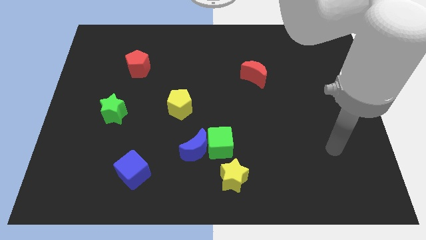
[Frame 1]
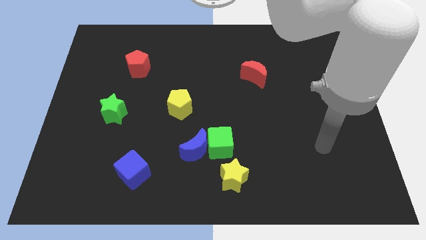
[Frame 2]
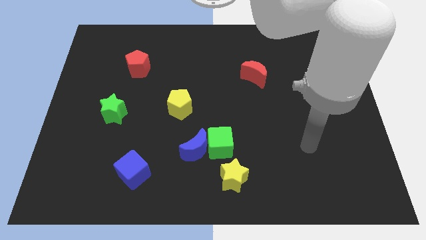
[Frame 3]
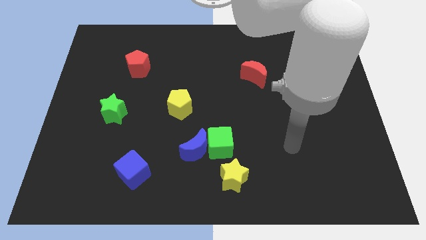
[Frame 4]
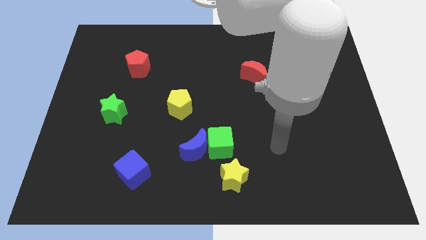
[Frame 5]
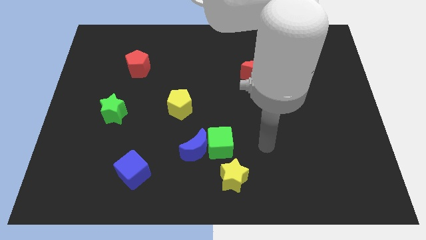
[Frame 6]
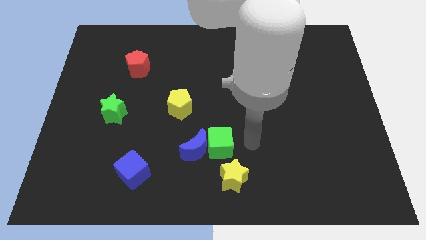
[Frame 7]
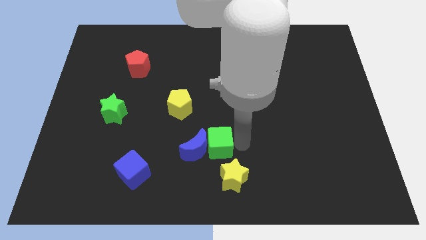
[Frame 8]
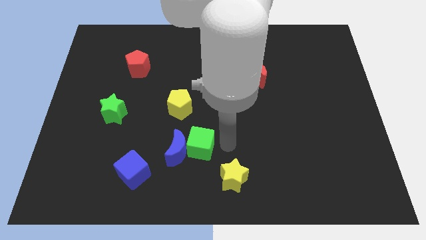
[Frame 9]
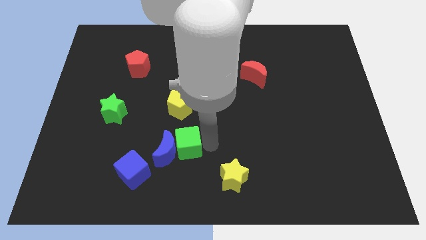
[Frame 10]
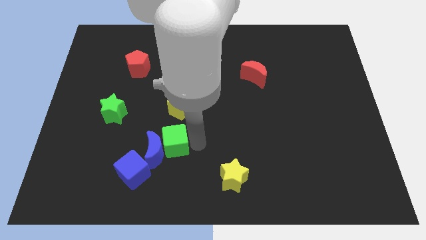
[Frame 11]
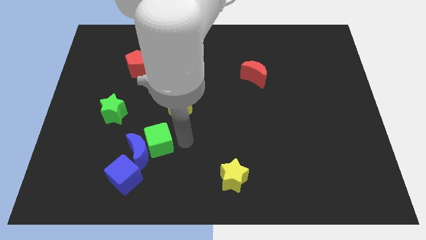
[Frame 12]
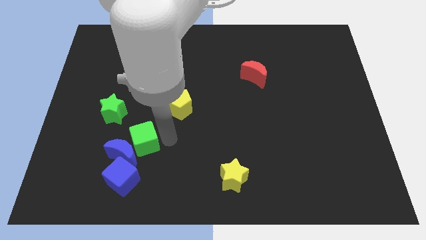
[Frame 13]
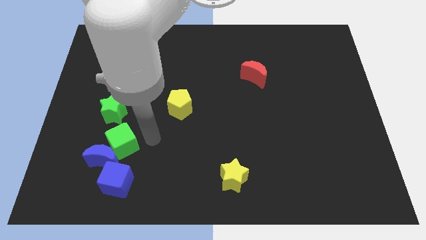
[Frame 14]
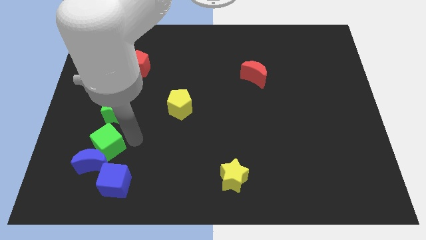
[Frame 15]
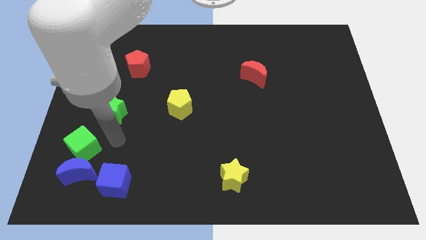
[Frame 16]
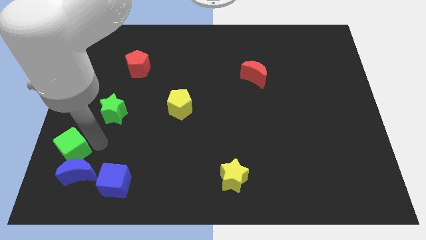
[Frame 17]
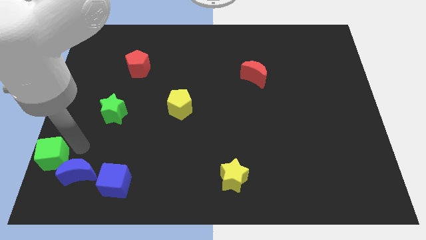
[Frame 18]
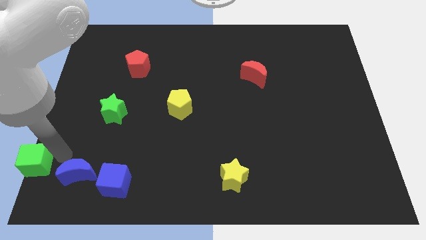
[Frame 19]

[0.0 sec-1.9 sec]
pull the blue moon apart from the green cube

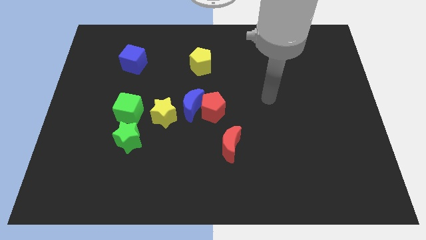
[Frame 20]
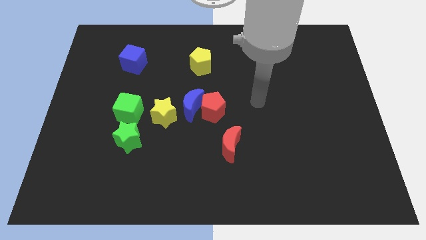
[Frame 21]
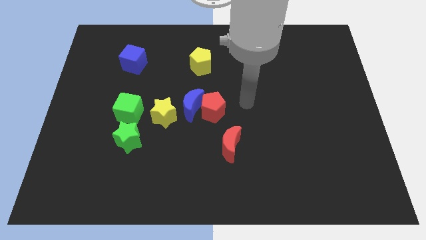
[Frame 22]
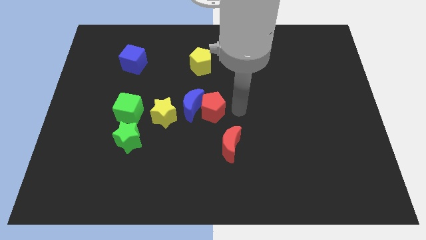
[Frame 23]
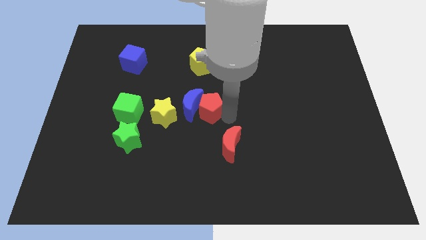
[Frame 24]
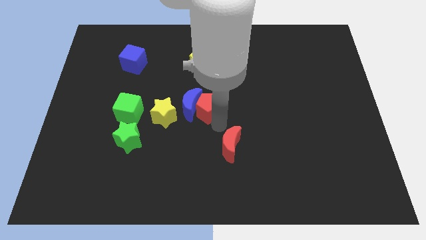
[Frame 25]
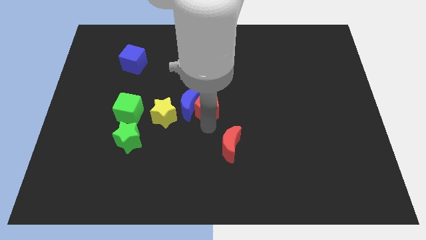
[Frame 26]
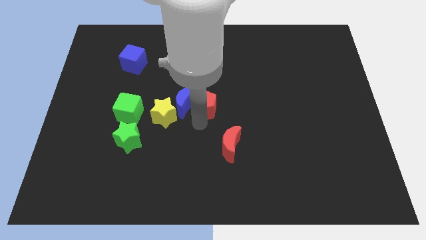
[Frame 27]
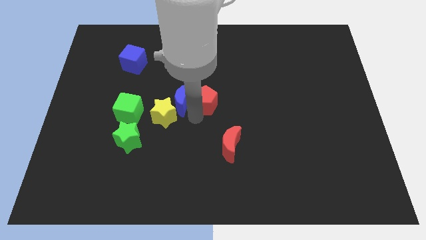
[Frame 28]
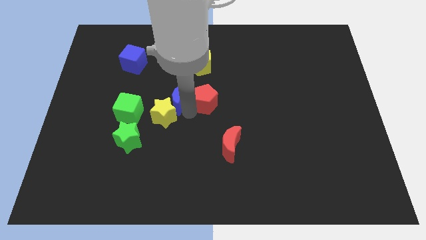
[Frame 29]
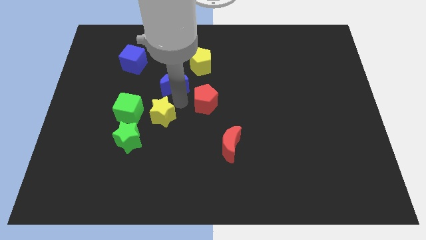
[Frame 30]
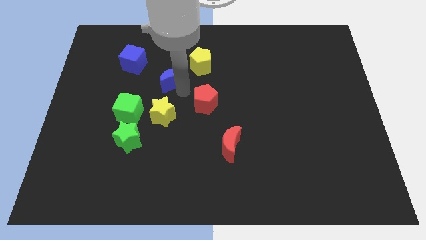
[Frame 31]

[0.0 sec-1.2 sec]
separate the red pentagon from the blue moon

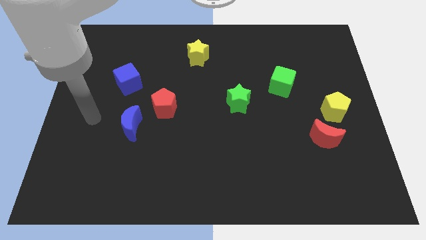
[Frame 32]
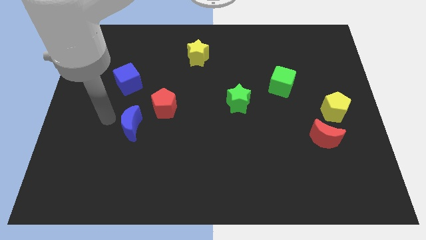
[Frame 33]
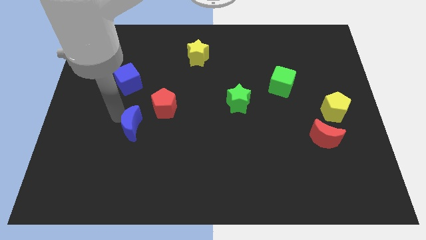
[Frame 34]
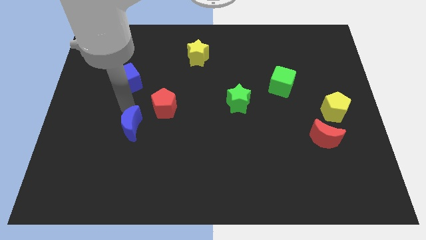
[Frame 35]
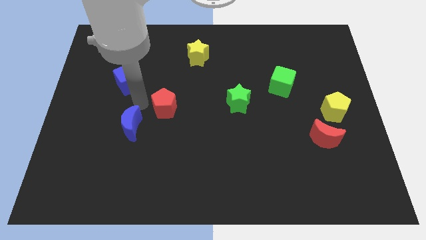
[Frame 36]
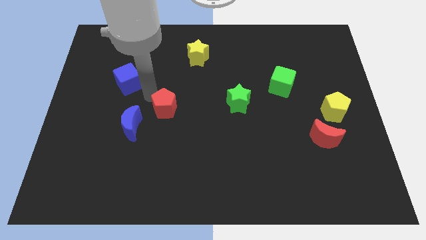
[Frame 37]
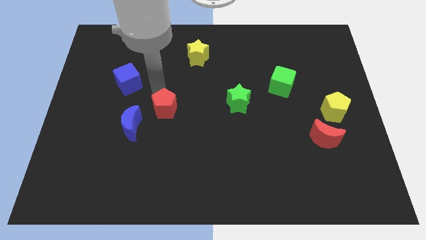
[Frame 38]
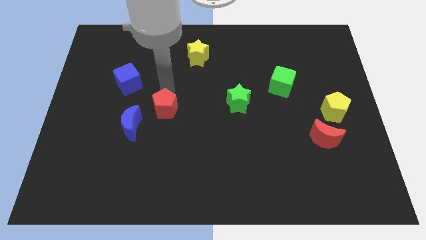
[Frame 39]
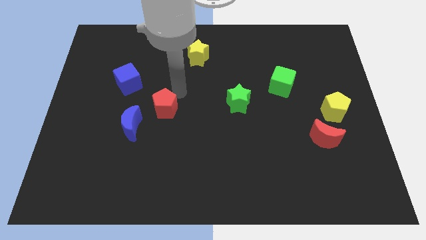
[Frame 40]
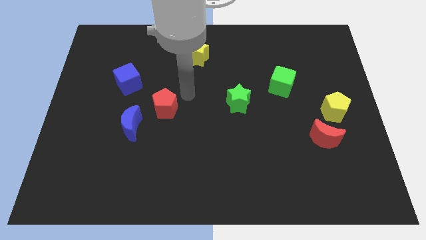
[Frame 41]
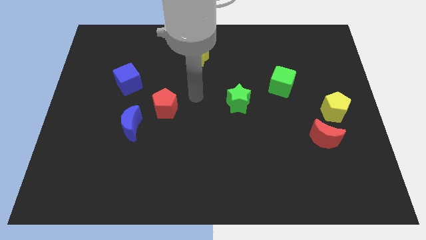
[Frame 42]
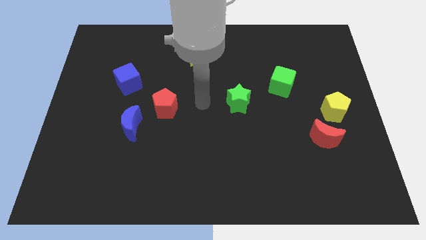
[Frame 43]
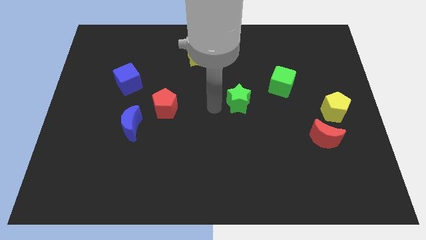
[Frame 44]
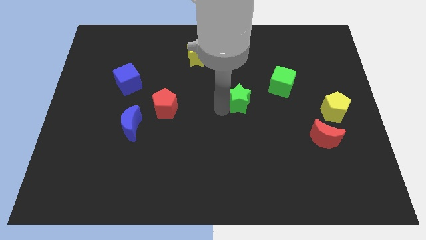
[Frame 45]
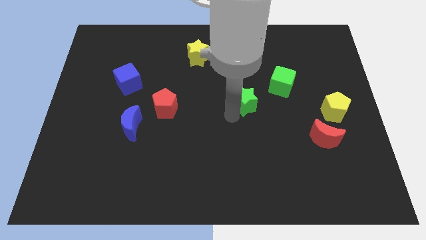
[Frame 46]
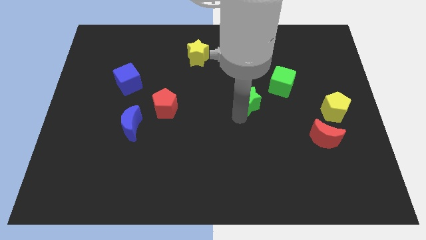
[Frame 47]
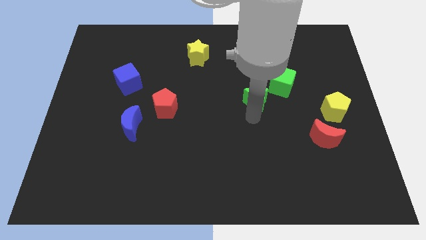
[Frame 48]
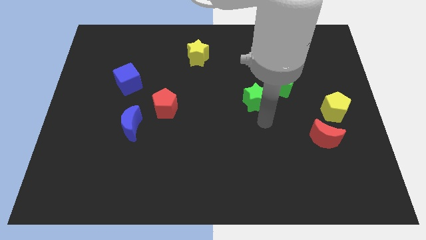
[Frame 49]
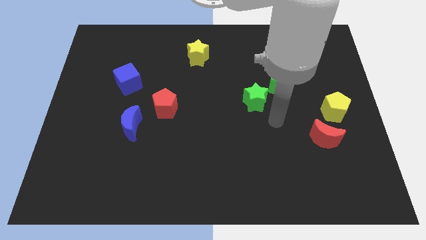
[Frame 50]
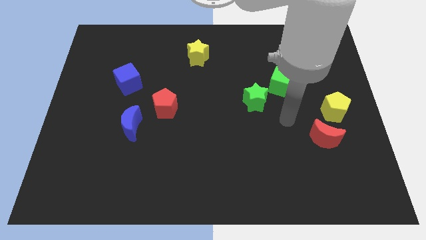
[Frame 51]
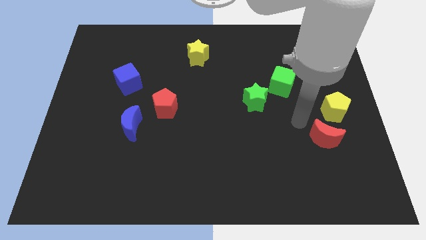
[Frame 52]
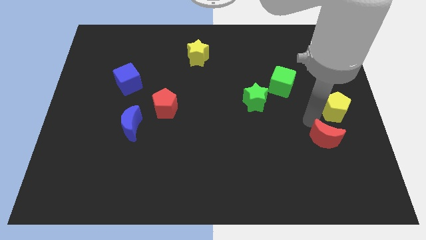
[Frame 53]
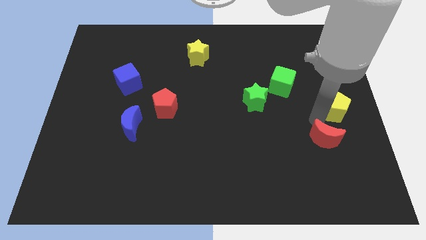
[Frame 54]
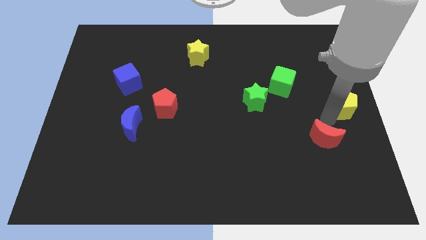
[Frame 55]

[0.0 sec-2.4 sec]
move the red moon away from the yellow pentagon

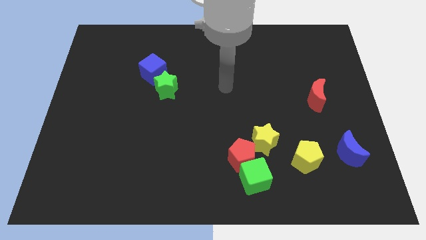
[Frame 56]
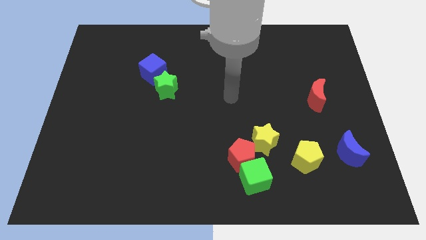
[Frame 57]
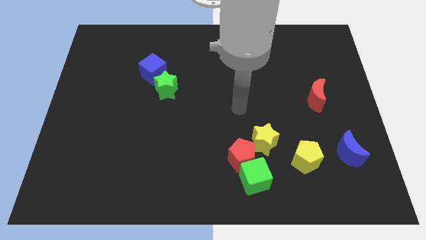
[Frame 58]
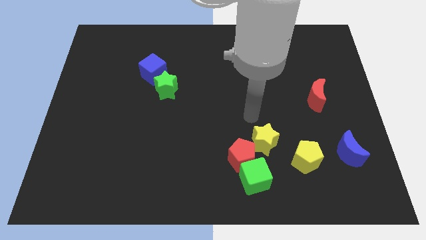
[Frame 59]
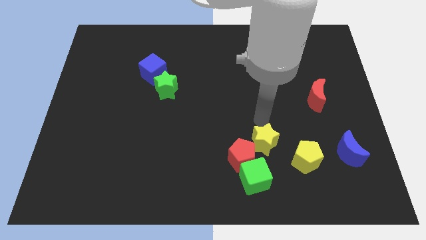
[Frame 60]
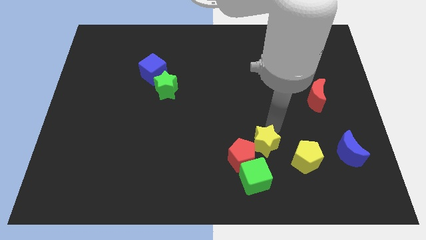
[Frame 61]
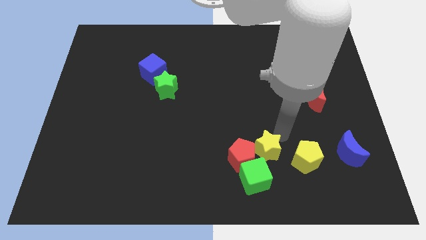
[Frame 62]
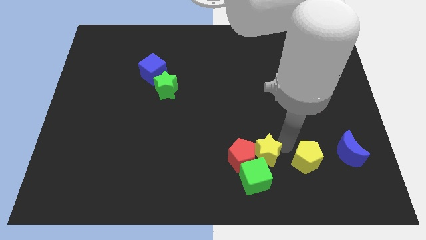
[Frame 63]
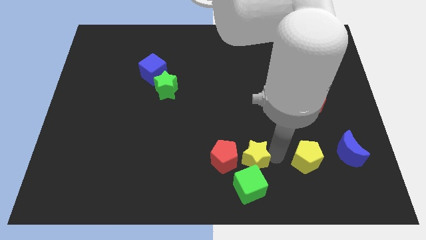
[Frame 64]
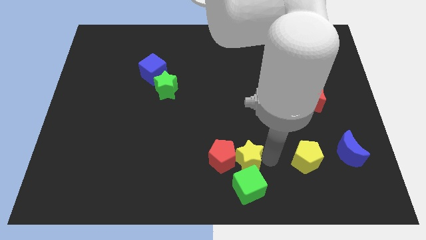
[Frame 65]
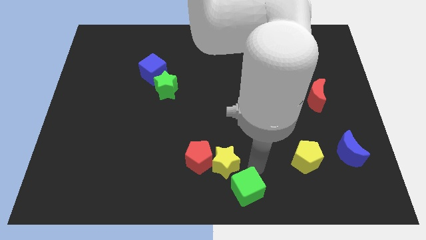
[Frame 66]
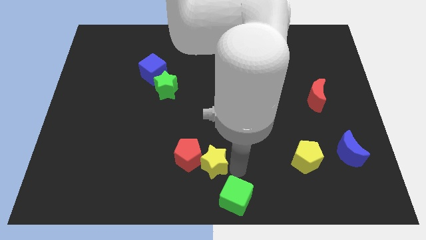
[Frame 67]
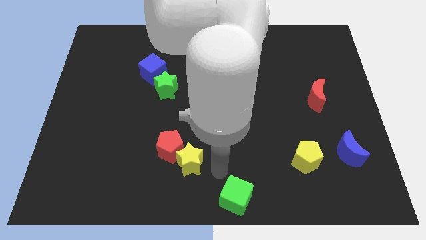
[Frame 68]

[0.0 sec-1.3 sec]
separate the red pentagon from the green cube and yellow star

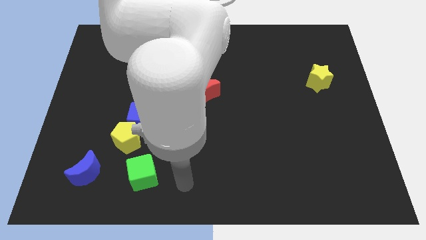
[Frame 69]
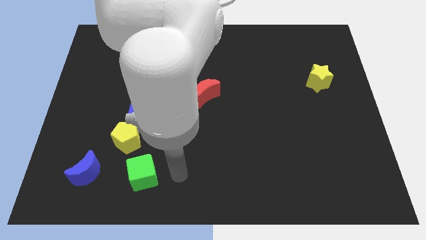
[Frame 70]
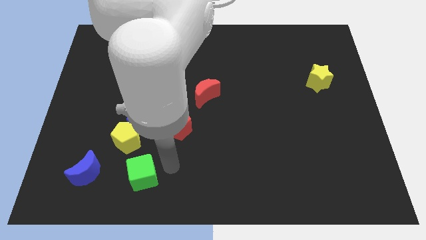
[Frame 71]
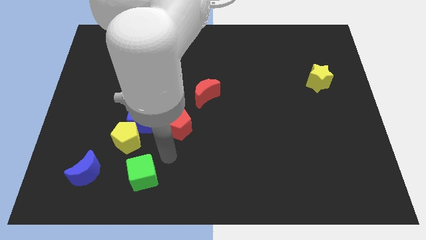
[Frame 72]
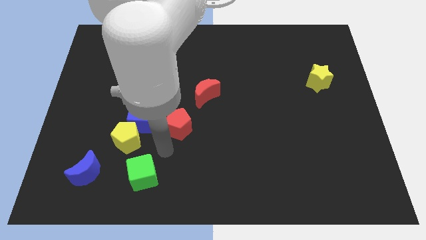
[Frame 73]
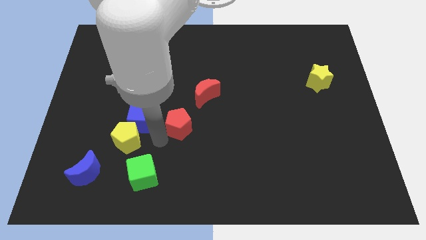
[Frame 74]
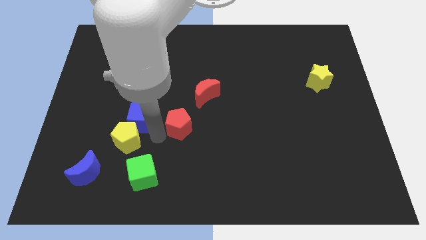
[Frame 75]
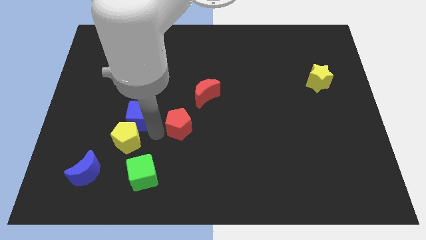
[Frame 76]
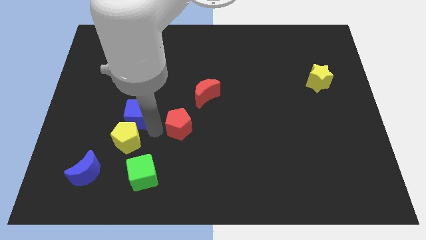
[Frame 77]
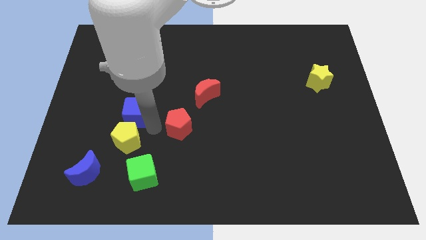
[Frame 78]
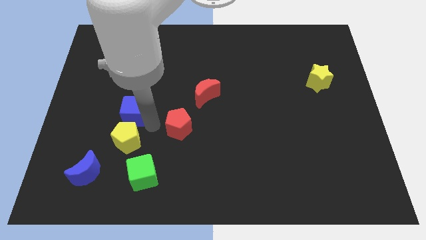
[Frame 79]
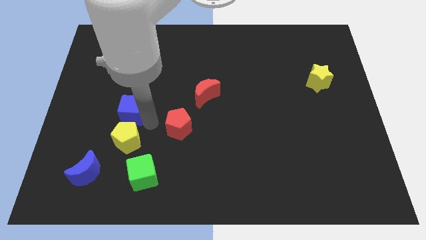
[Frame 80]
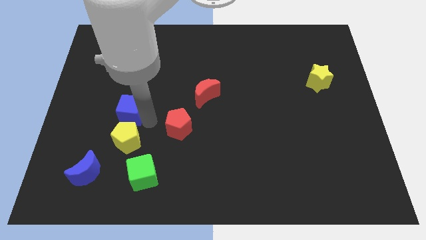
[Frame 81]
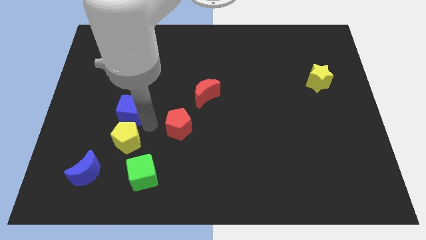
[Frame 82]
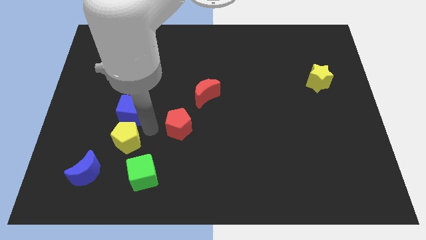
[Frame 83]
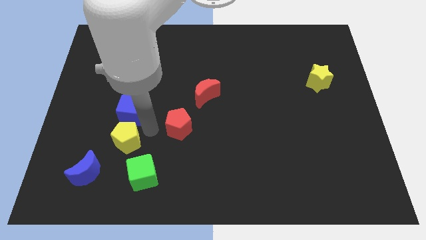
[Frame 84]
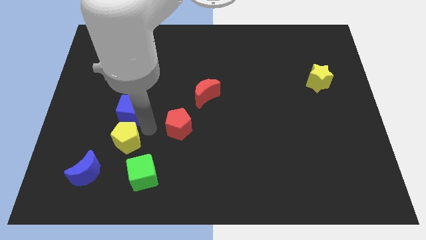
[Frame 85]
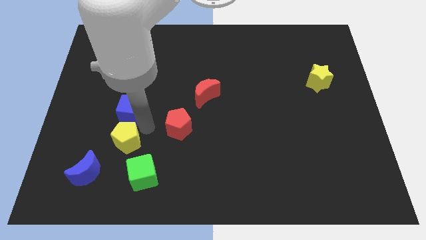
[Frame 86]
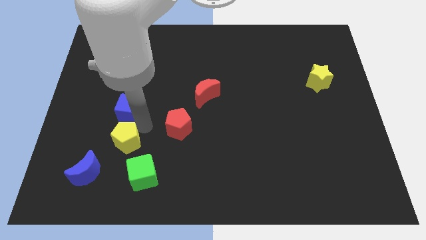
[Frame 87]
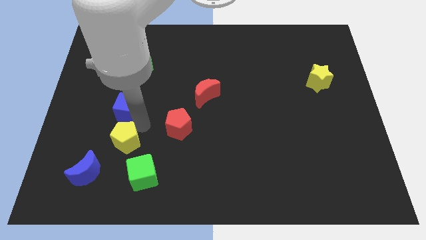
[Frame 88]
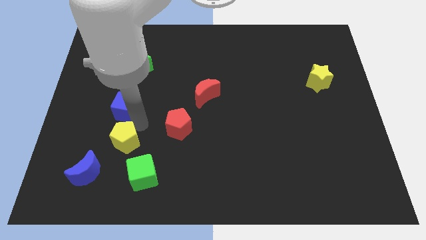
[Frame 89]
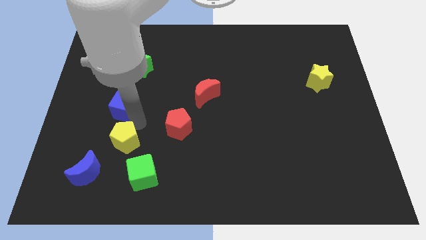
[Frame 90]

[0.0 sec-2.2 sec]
separate the blue cube from the yellow pentagon and red pentagon

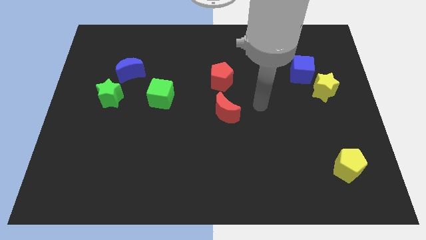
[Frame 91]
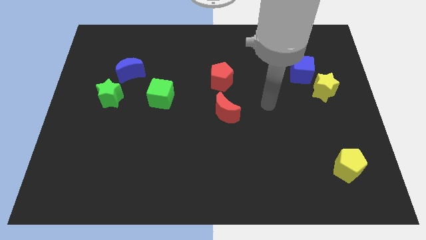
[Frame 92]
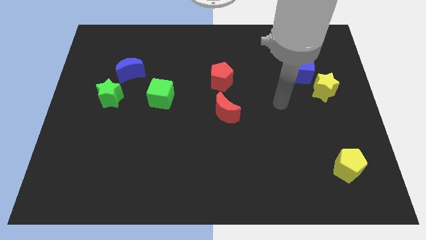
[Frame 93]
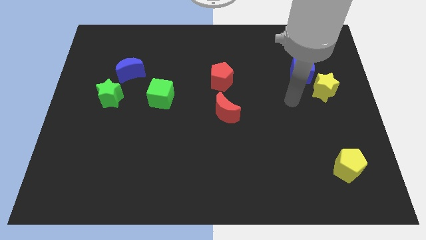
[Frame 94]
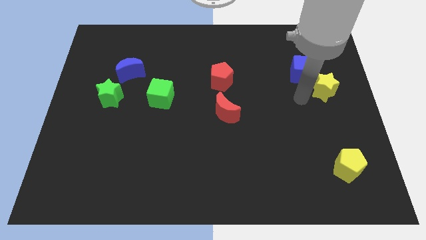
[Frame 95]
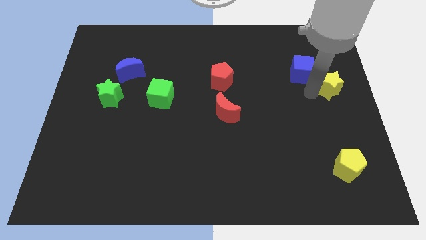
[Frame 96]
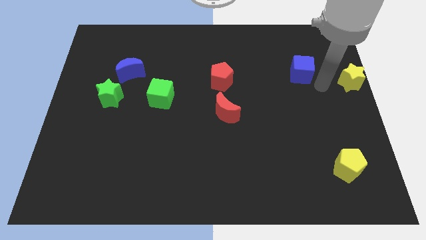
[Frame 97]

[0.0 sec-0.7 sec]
move the blue cube away from the yellow star
